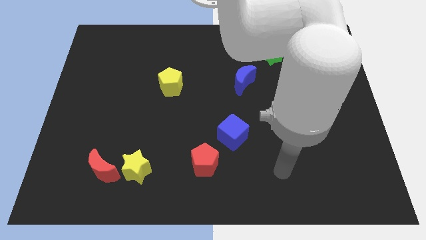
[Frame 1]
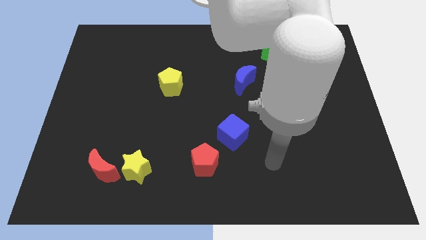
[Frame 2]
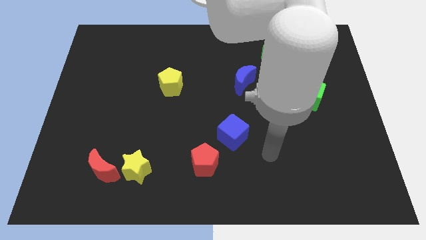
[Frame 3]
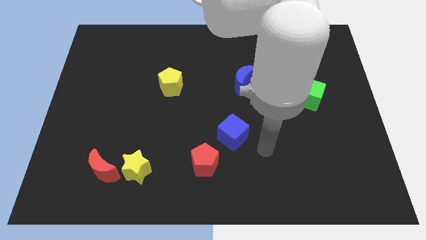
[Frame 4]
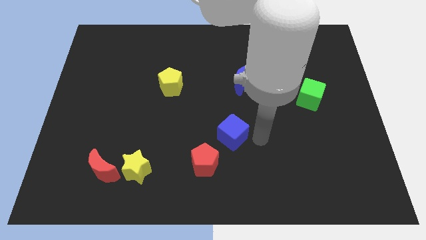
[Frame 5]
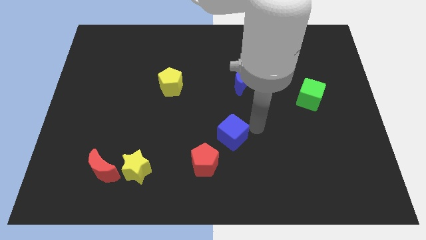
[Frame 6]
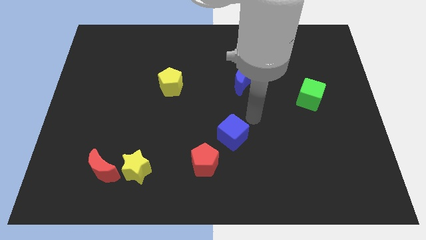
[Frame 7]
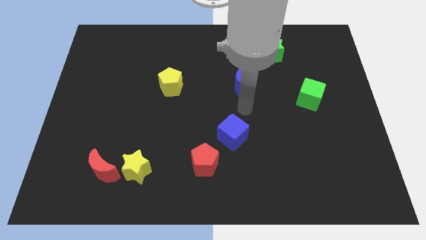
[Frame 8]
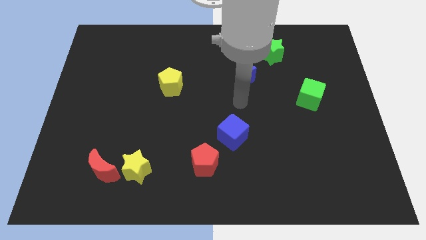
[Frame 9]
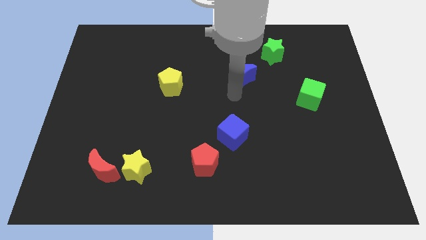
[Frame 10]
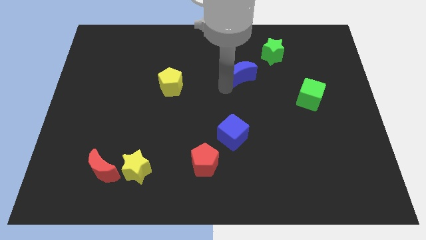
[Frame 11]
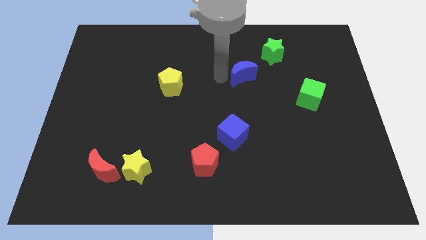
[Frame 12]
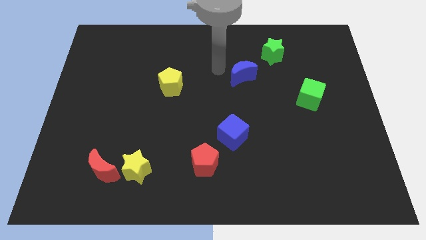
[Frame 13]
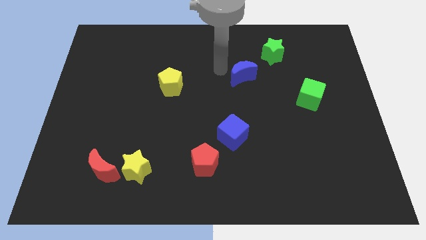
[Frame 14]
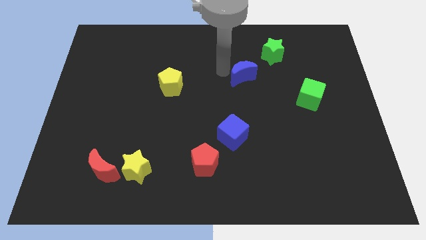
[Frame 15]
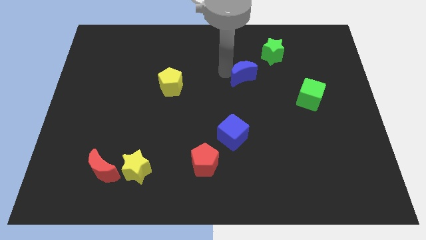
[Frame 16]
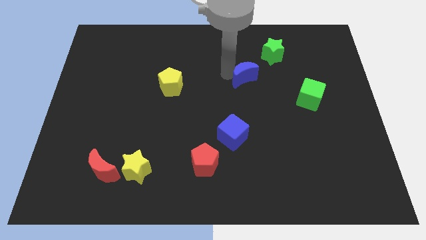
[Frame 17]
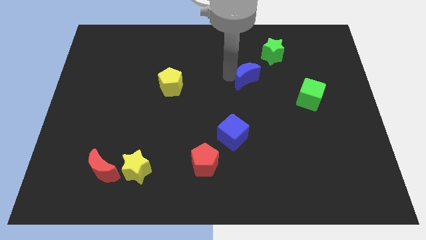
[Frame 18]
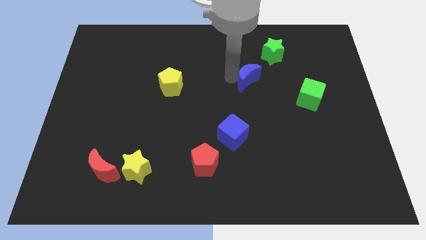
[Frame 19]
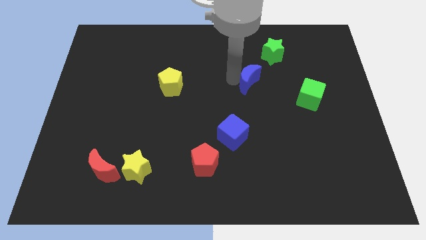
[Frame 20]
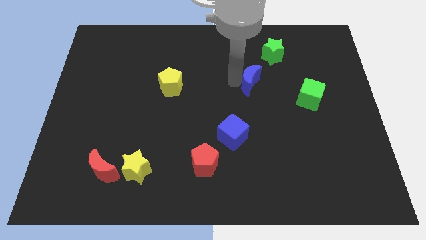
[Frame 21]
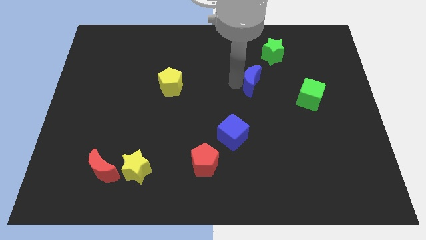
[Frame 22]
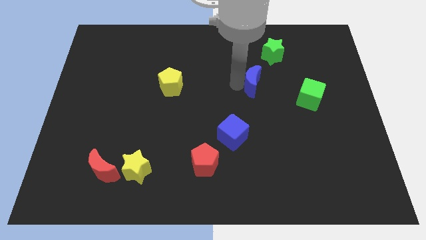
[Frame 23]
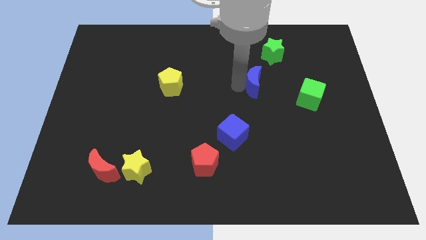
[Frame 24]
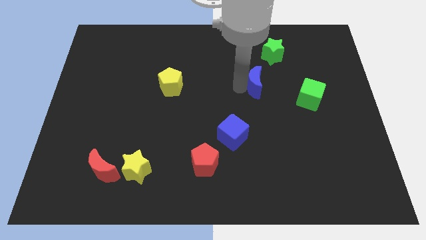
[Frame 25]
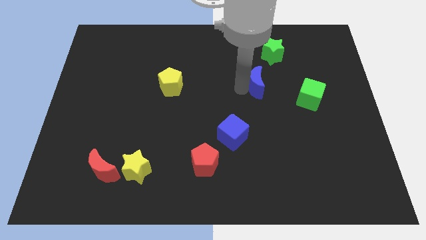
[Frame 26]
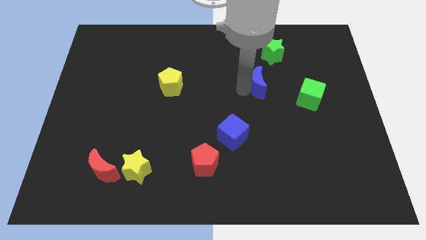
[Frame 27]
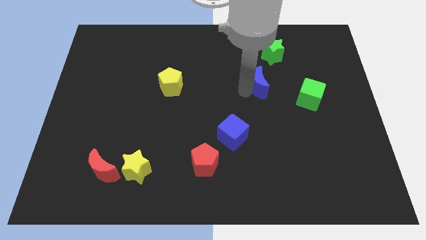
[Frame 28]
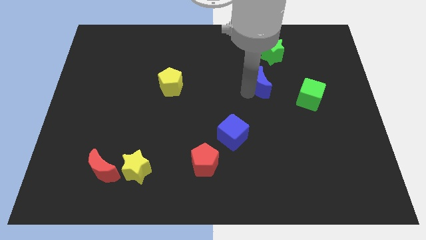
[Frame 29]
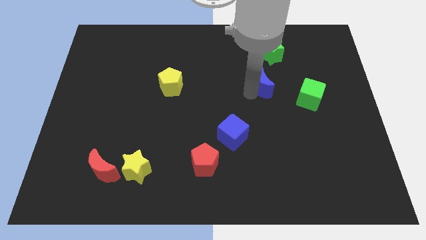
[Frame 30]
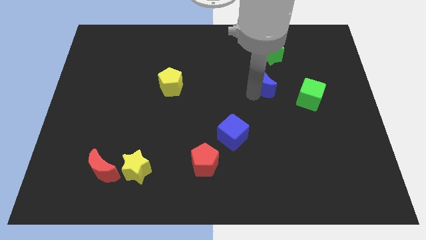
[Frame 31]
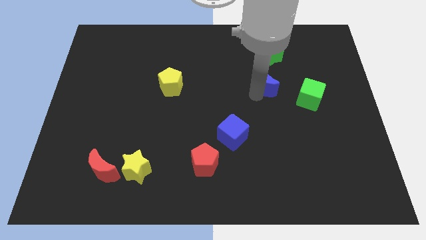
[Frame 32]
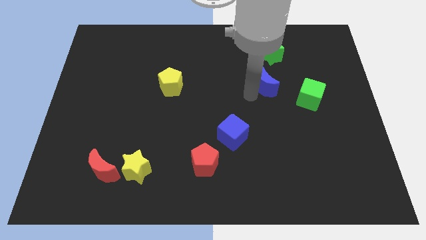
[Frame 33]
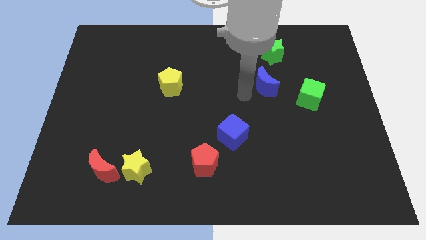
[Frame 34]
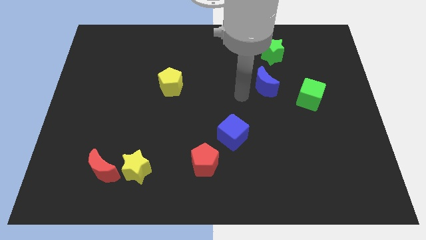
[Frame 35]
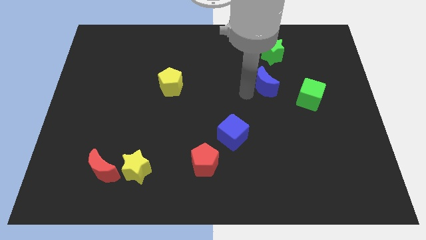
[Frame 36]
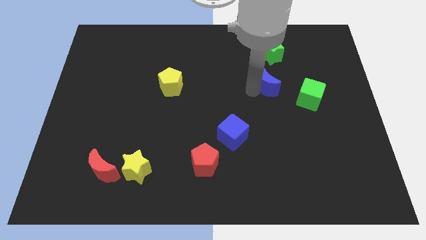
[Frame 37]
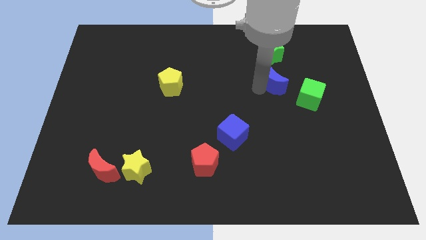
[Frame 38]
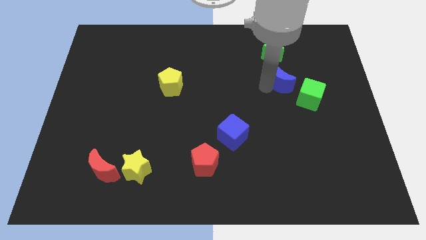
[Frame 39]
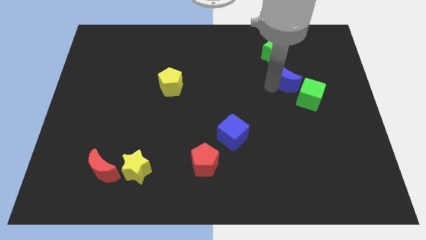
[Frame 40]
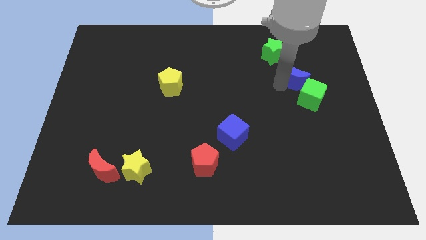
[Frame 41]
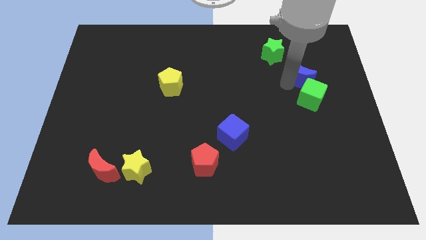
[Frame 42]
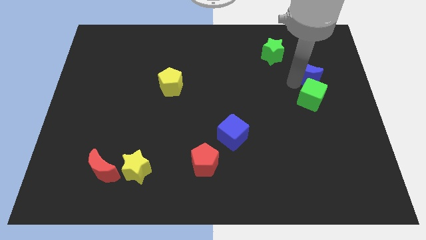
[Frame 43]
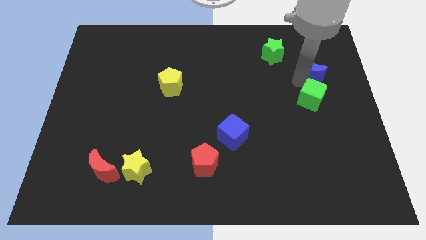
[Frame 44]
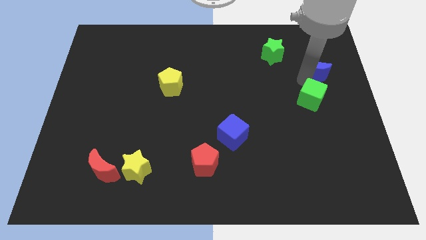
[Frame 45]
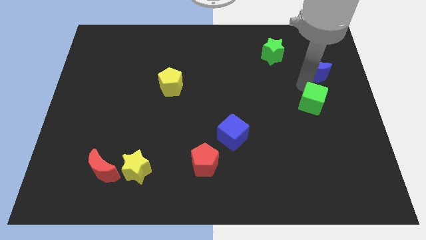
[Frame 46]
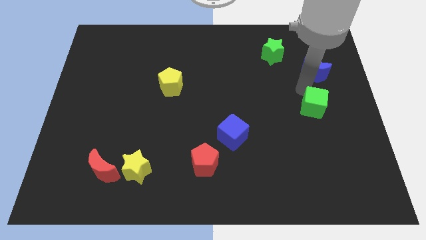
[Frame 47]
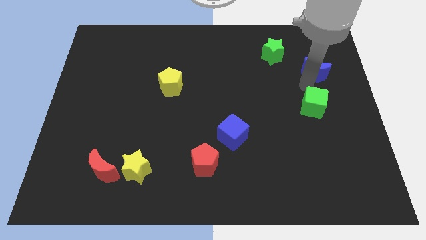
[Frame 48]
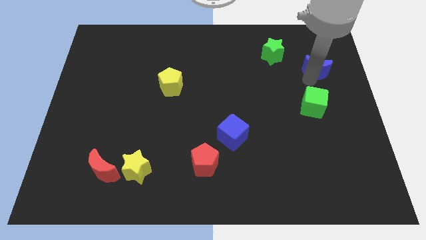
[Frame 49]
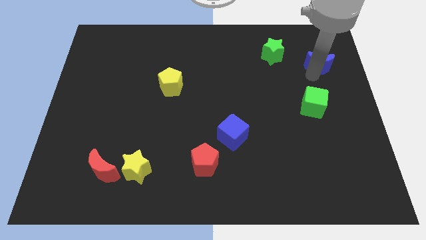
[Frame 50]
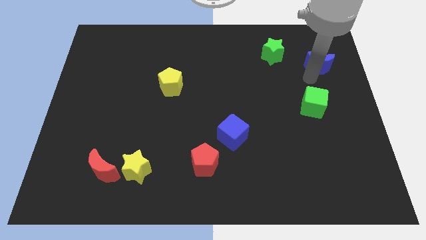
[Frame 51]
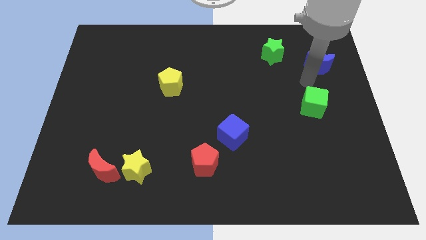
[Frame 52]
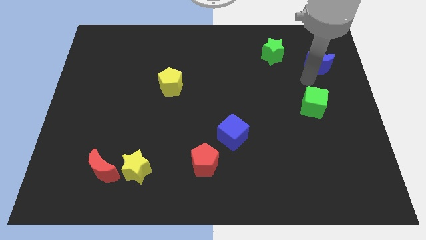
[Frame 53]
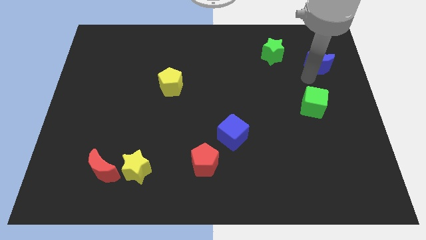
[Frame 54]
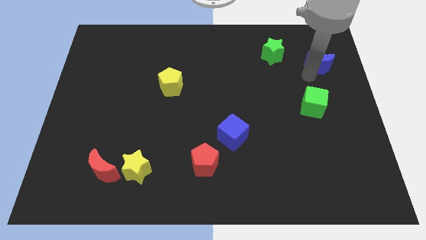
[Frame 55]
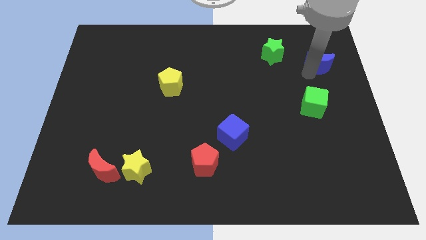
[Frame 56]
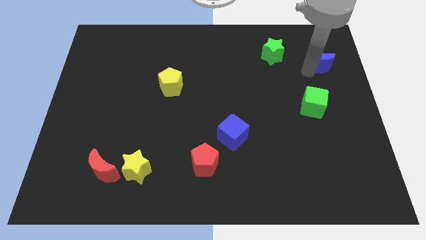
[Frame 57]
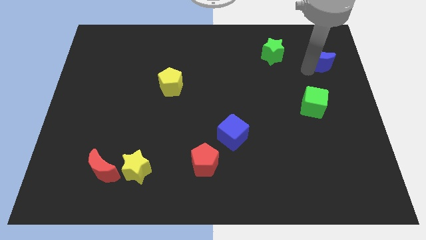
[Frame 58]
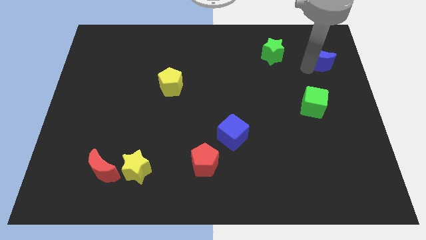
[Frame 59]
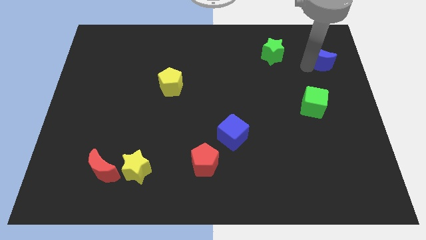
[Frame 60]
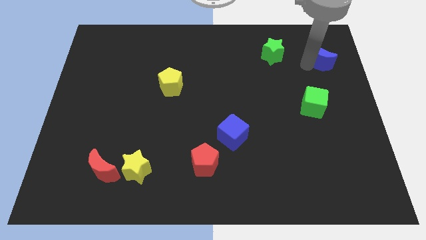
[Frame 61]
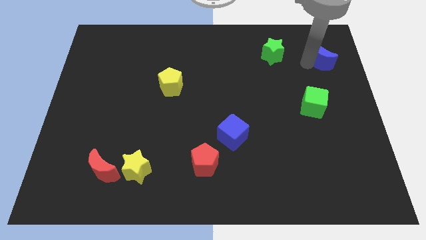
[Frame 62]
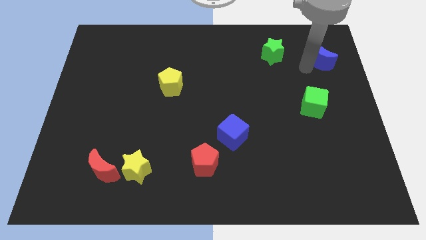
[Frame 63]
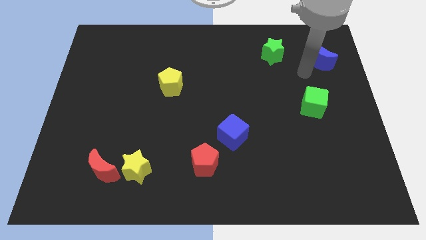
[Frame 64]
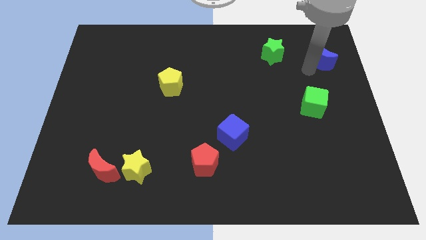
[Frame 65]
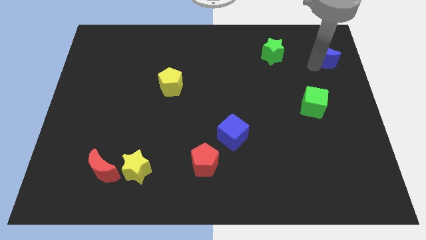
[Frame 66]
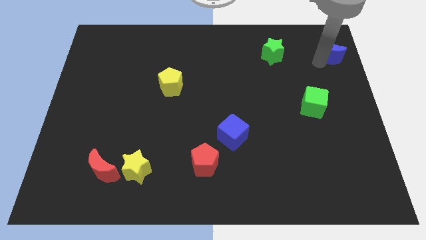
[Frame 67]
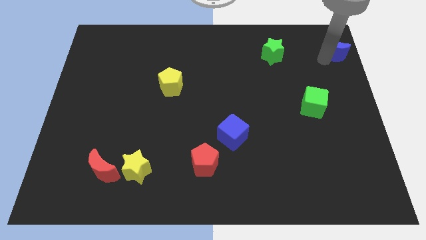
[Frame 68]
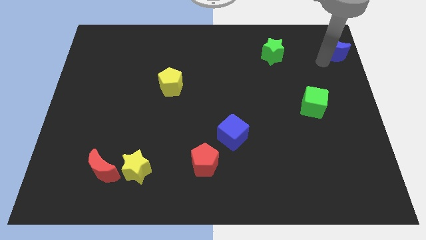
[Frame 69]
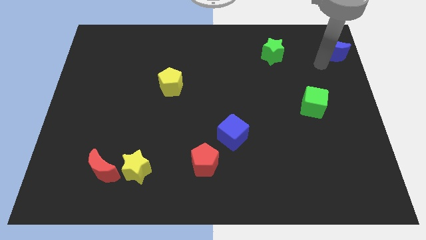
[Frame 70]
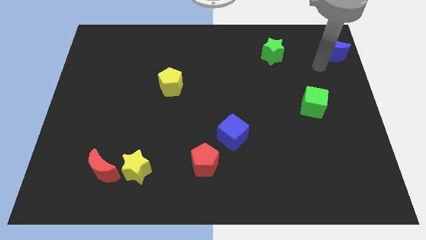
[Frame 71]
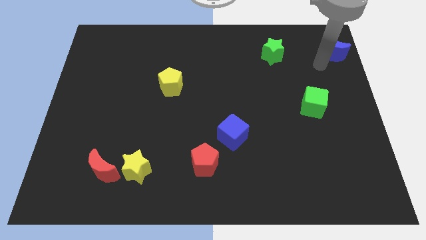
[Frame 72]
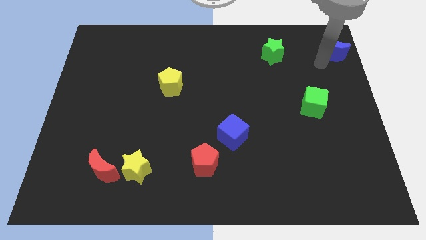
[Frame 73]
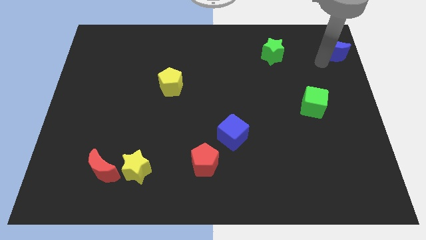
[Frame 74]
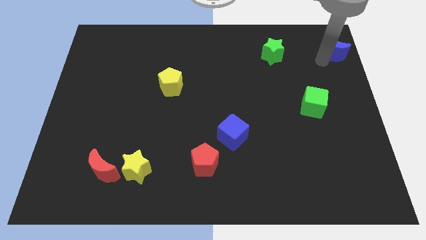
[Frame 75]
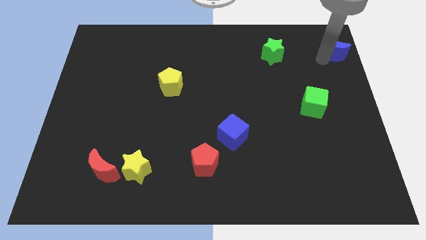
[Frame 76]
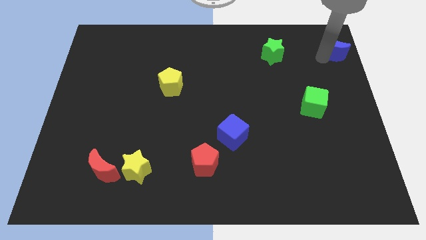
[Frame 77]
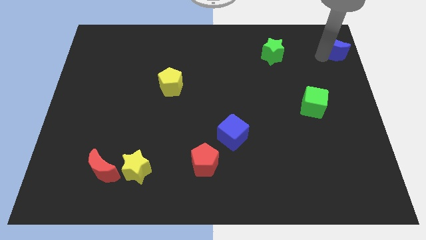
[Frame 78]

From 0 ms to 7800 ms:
slide the blue moon to the top right corner
